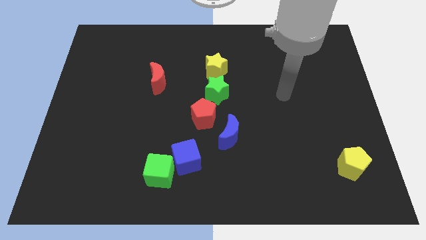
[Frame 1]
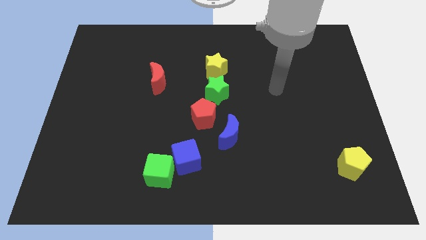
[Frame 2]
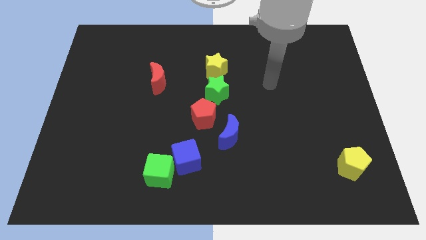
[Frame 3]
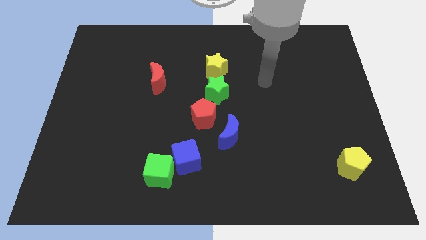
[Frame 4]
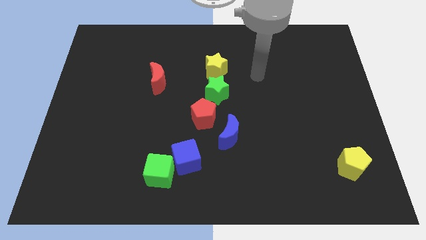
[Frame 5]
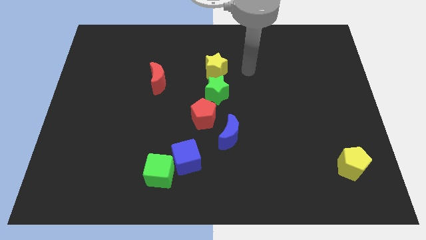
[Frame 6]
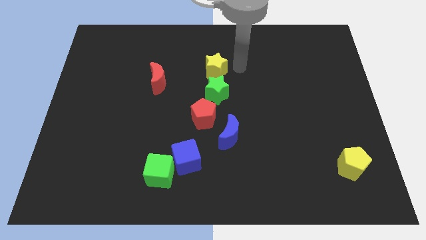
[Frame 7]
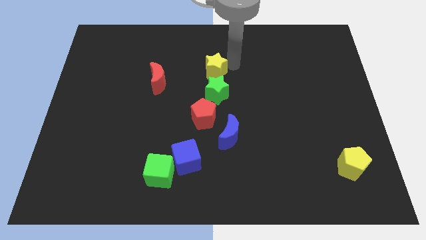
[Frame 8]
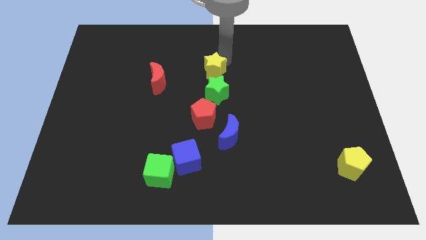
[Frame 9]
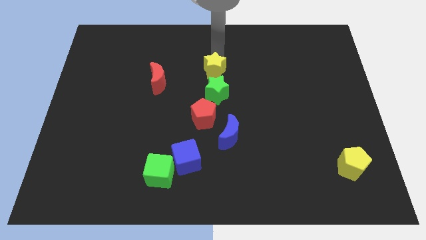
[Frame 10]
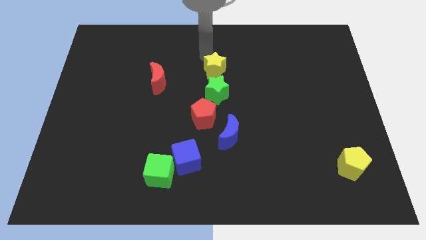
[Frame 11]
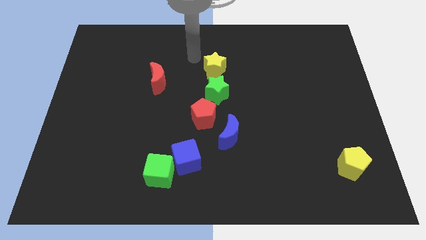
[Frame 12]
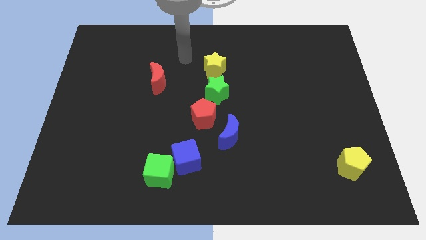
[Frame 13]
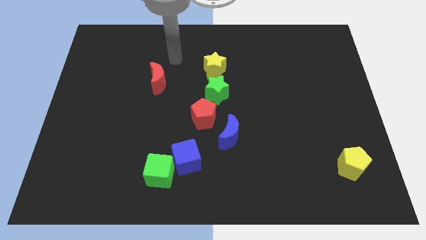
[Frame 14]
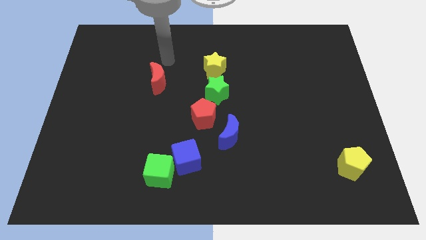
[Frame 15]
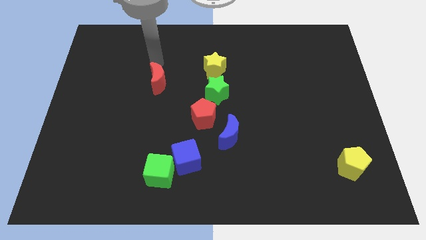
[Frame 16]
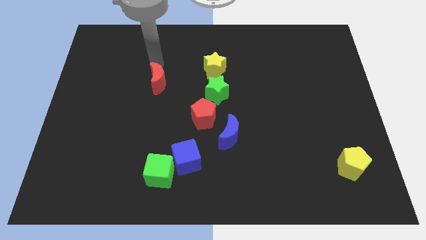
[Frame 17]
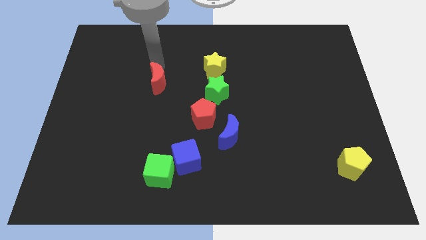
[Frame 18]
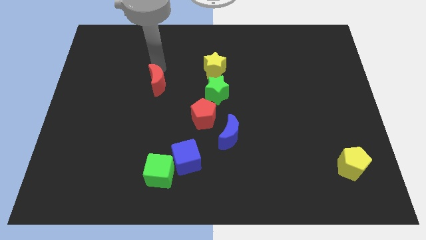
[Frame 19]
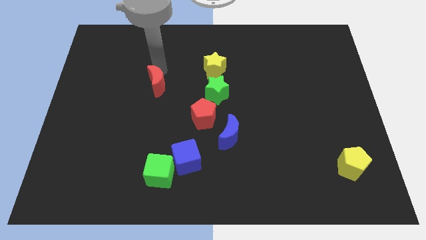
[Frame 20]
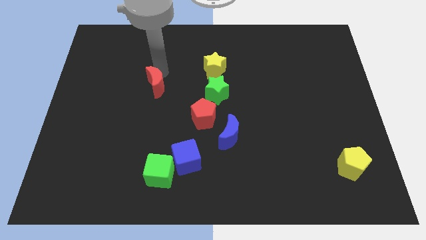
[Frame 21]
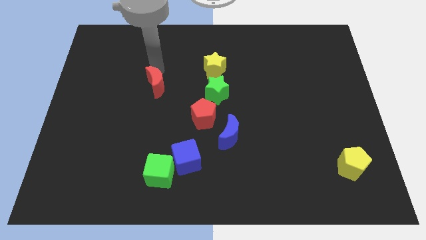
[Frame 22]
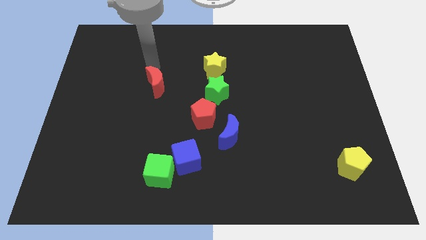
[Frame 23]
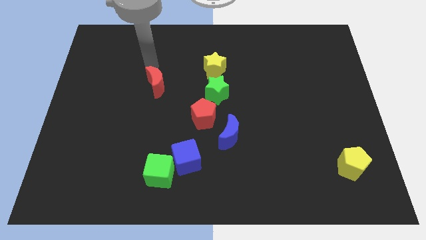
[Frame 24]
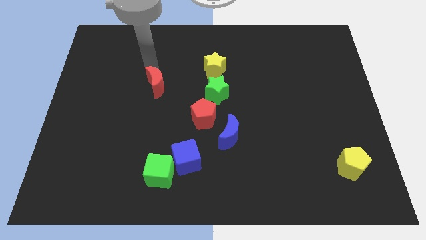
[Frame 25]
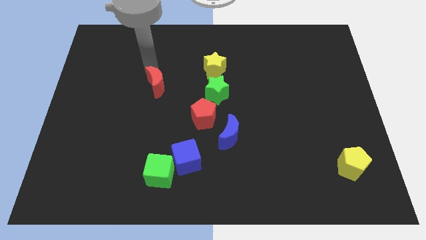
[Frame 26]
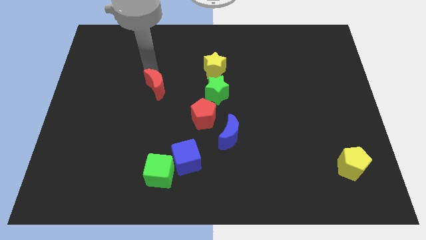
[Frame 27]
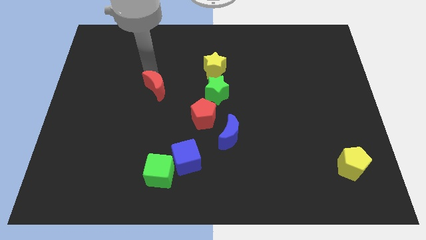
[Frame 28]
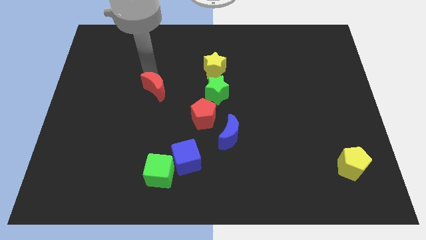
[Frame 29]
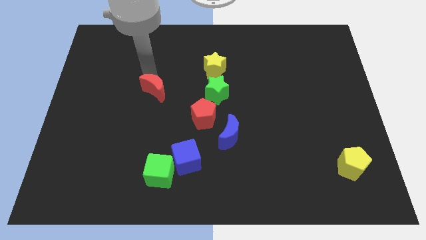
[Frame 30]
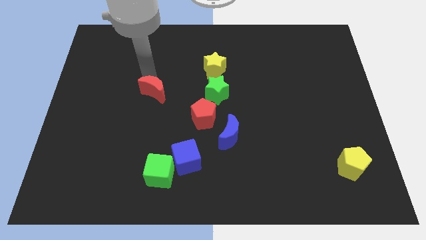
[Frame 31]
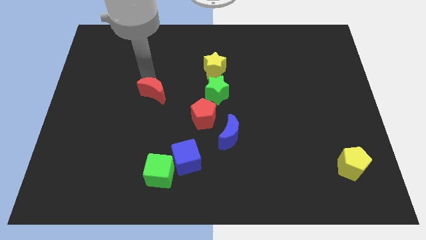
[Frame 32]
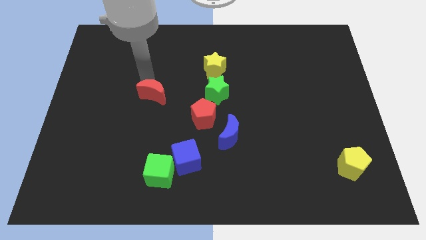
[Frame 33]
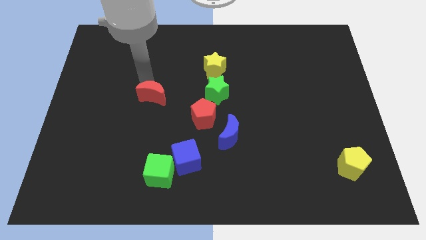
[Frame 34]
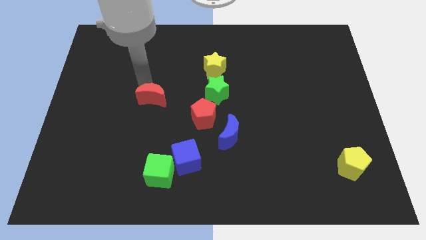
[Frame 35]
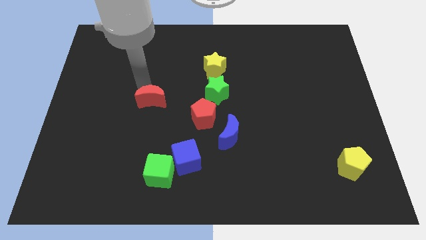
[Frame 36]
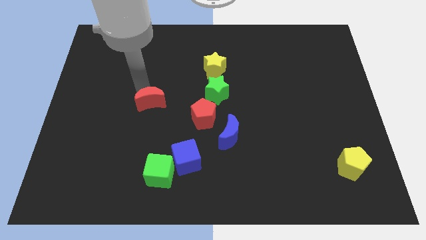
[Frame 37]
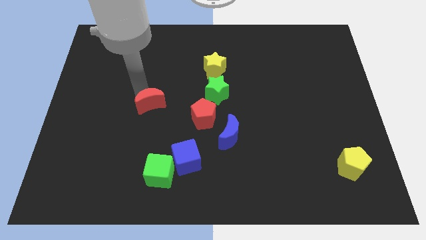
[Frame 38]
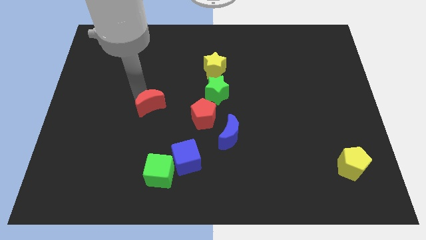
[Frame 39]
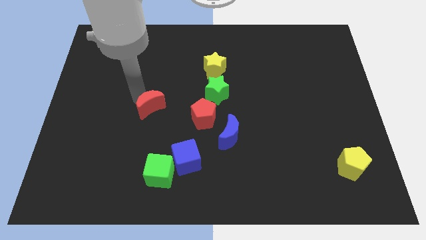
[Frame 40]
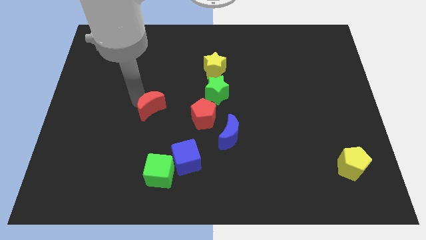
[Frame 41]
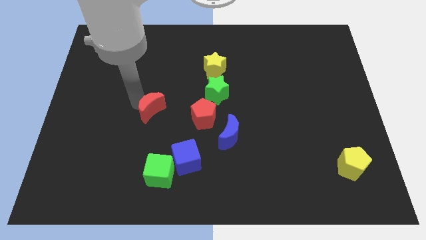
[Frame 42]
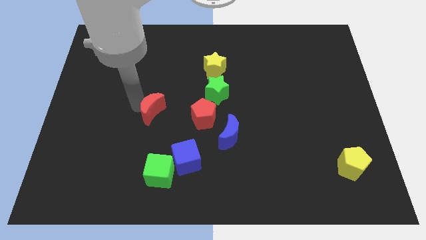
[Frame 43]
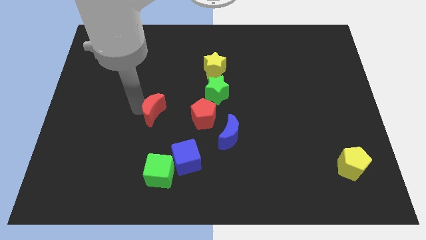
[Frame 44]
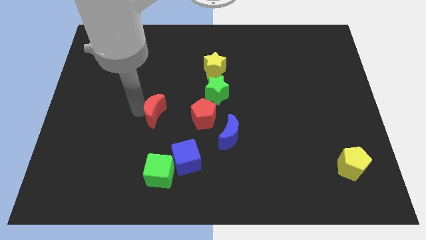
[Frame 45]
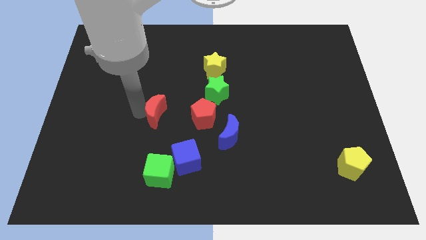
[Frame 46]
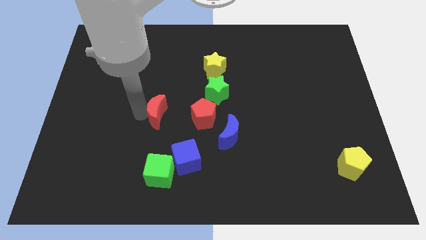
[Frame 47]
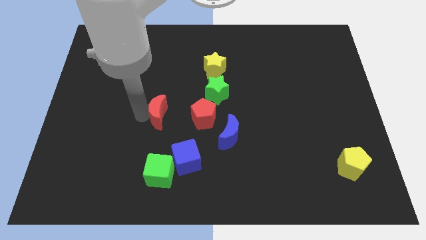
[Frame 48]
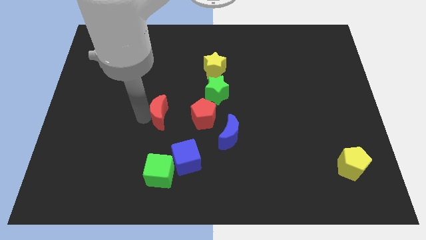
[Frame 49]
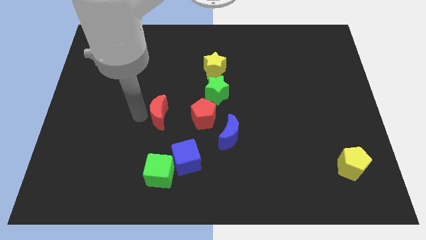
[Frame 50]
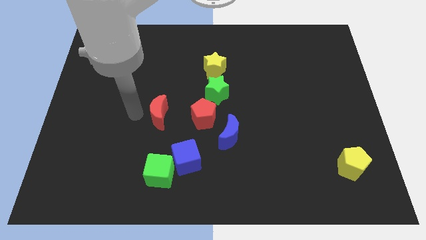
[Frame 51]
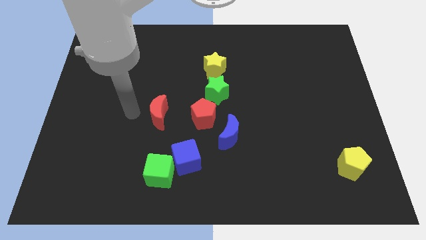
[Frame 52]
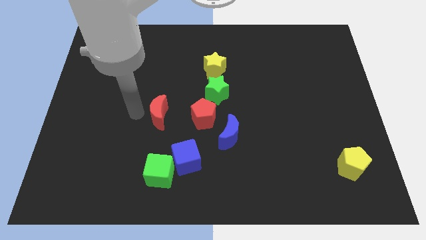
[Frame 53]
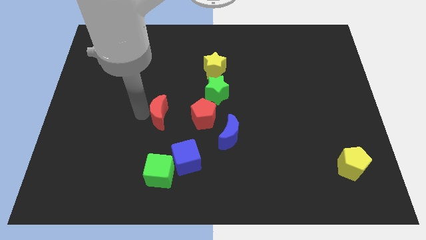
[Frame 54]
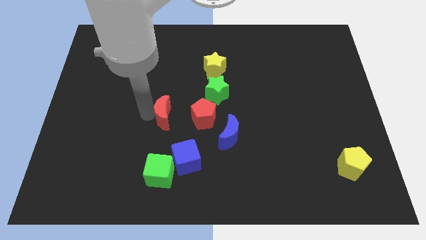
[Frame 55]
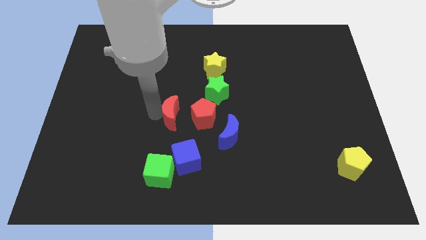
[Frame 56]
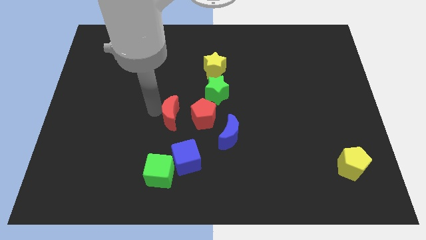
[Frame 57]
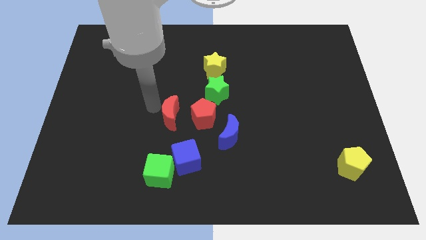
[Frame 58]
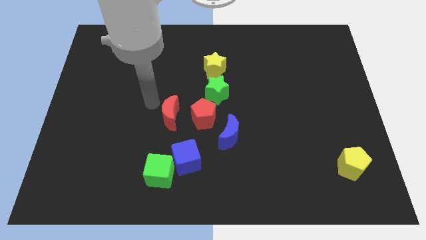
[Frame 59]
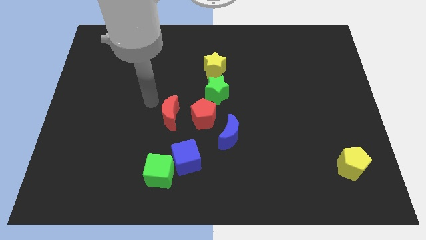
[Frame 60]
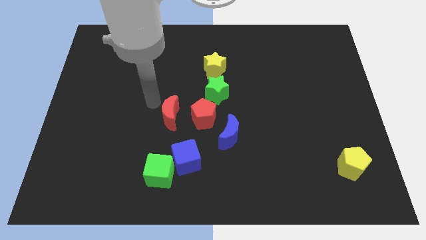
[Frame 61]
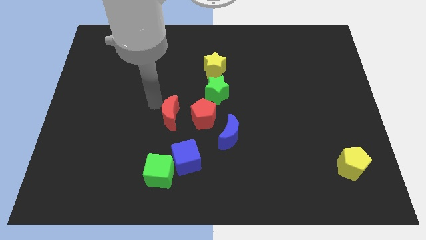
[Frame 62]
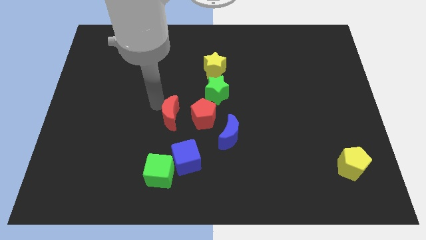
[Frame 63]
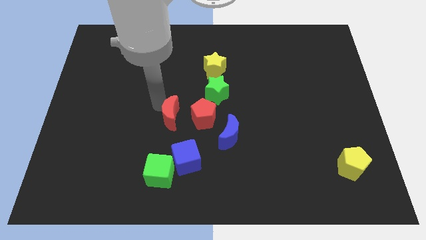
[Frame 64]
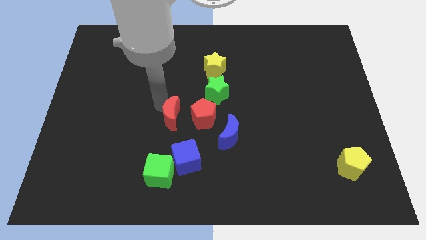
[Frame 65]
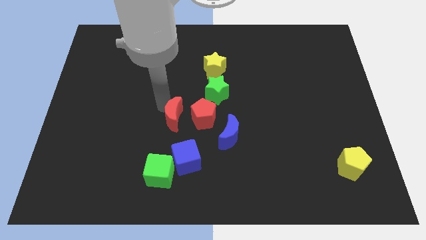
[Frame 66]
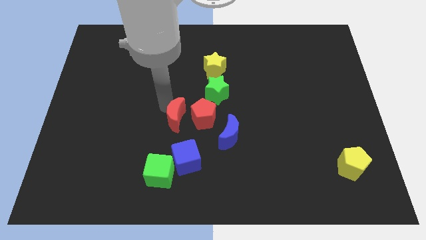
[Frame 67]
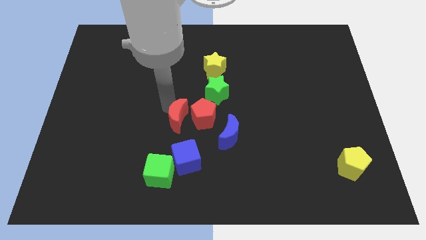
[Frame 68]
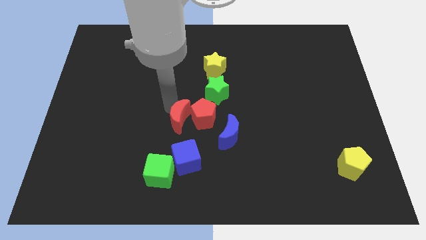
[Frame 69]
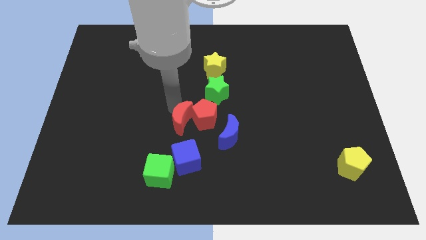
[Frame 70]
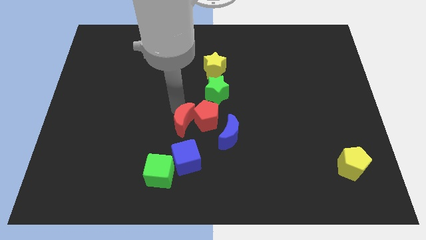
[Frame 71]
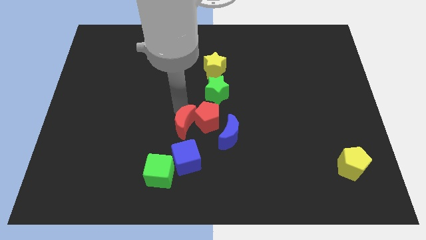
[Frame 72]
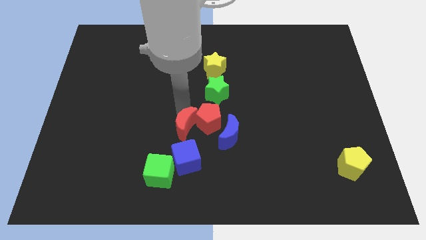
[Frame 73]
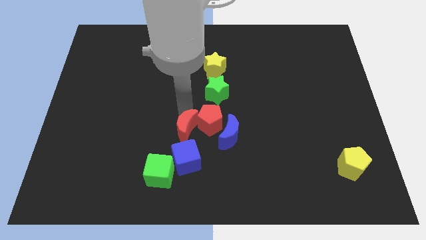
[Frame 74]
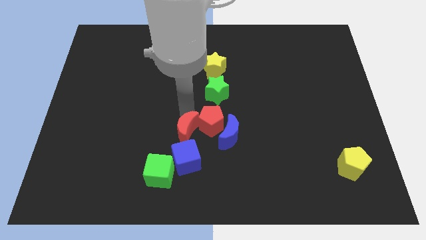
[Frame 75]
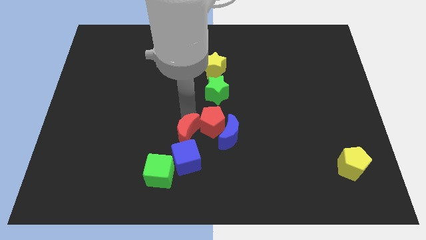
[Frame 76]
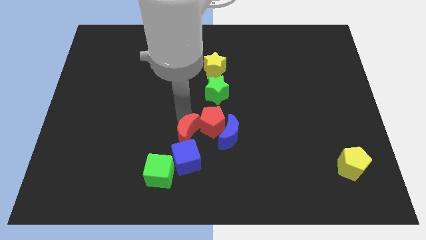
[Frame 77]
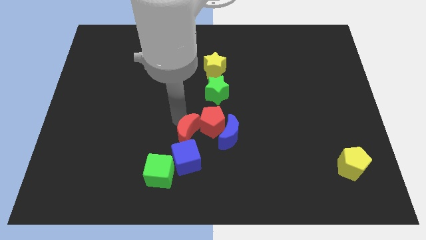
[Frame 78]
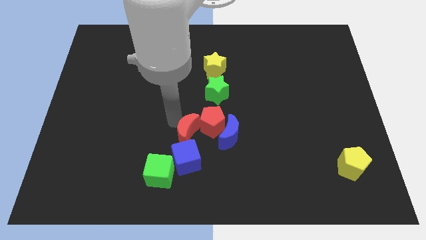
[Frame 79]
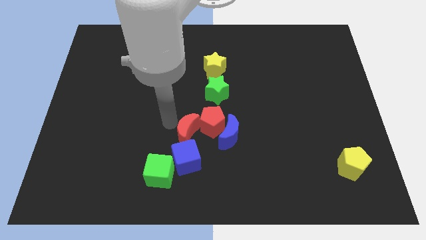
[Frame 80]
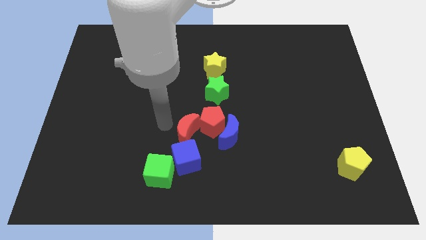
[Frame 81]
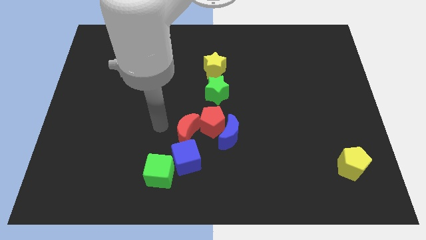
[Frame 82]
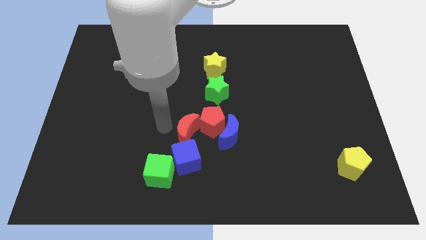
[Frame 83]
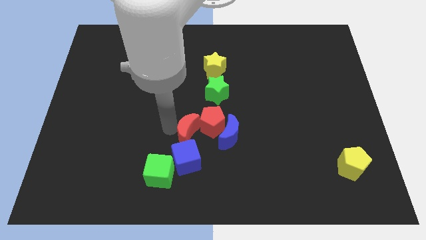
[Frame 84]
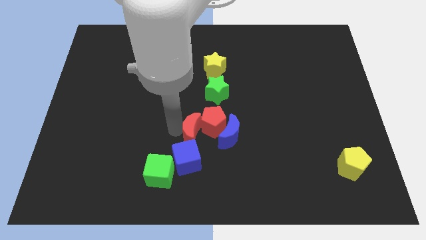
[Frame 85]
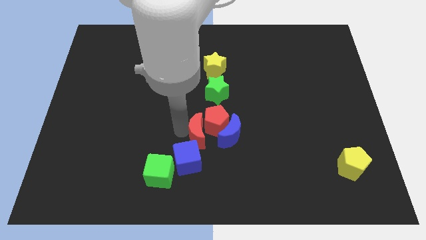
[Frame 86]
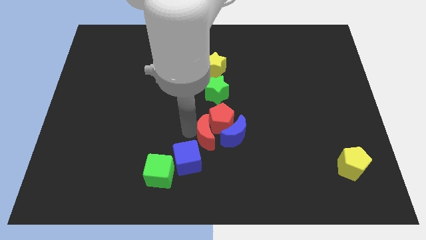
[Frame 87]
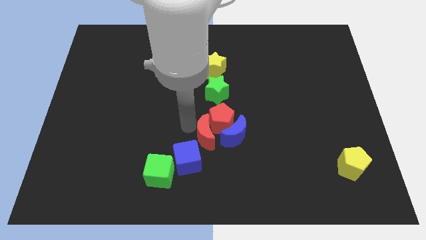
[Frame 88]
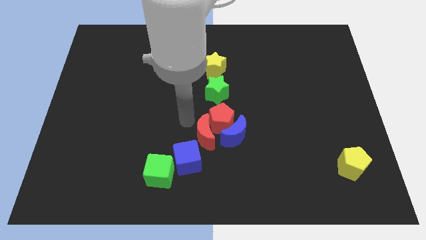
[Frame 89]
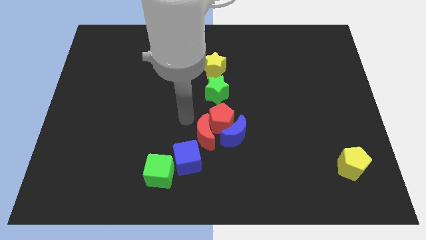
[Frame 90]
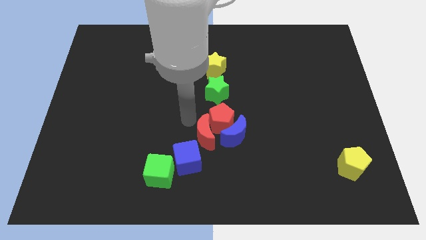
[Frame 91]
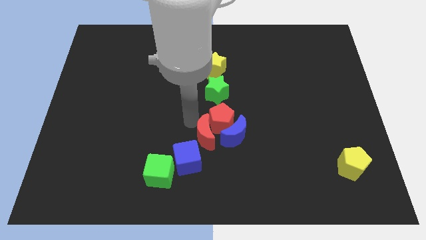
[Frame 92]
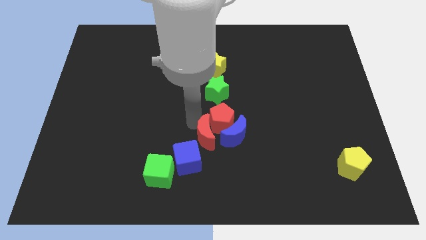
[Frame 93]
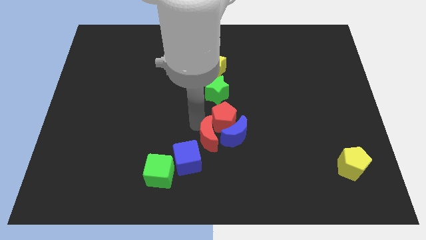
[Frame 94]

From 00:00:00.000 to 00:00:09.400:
push the red moon diagonally downwards and to the right
